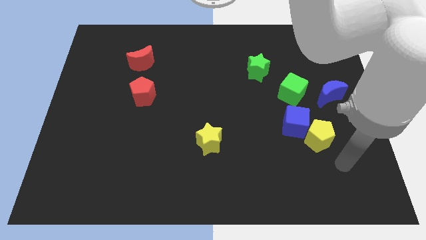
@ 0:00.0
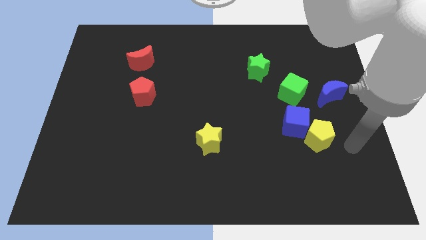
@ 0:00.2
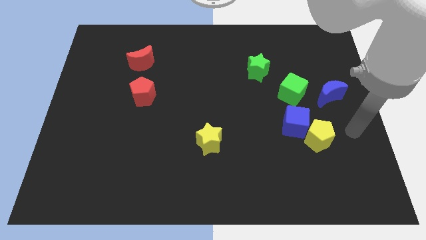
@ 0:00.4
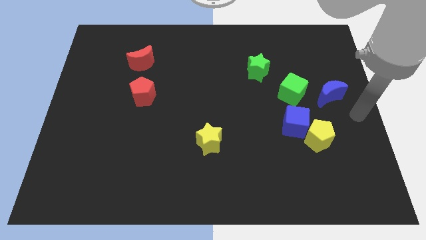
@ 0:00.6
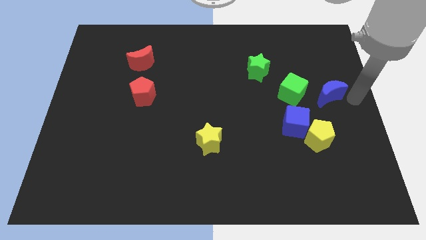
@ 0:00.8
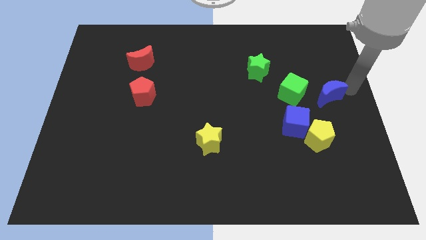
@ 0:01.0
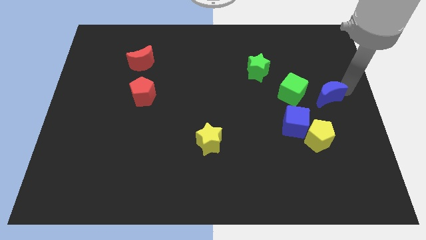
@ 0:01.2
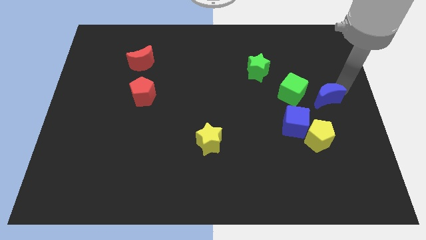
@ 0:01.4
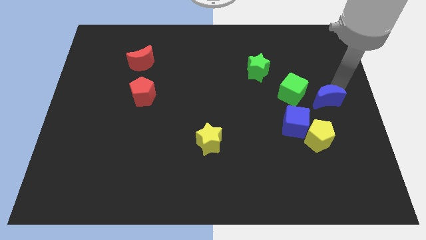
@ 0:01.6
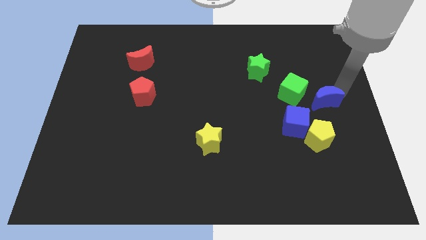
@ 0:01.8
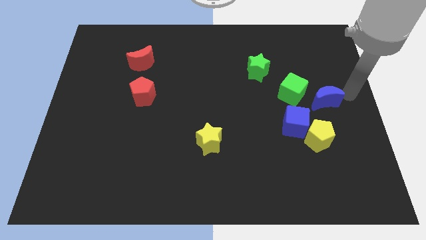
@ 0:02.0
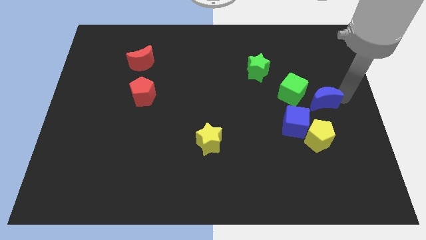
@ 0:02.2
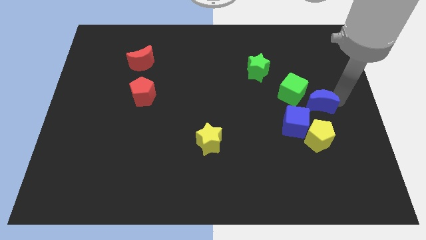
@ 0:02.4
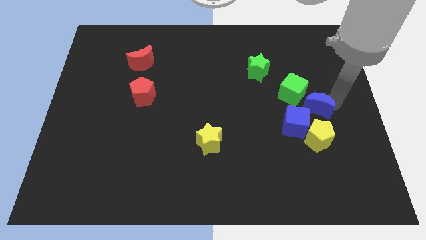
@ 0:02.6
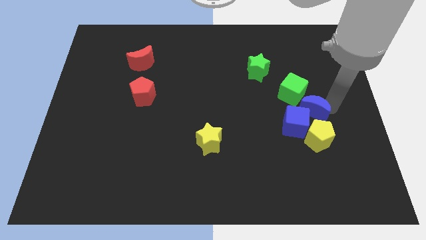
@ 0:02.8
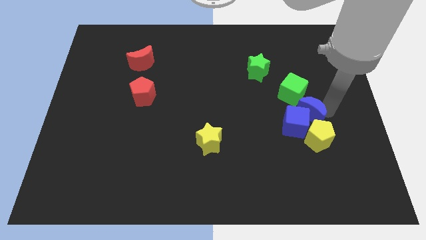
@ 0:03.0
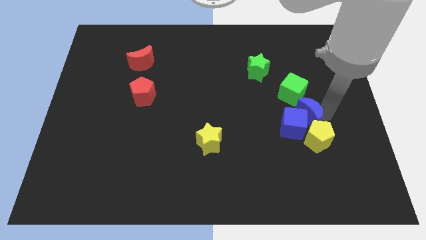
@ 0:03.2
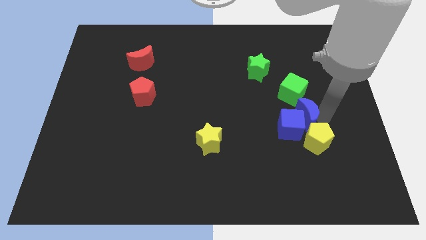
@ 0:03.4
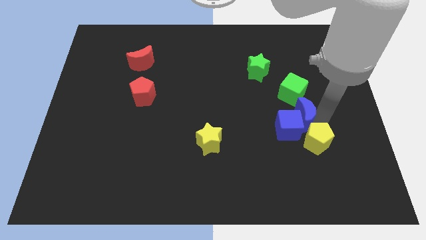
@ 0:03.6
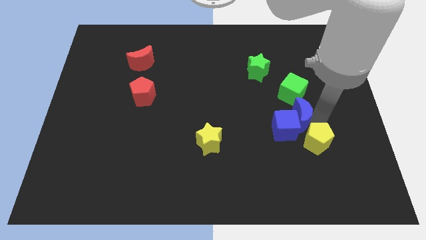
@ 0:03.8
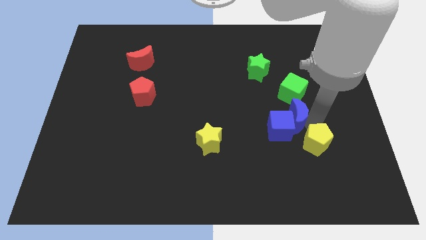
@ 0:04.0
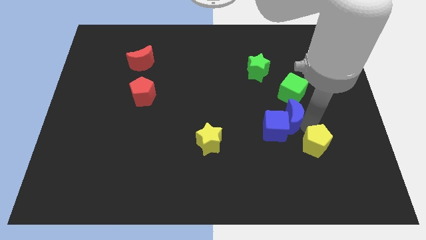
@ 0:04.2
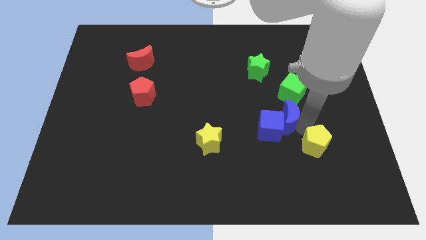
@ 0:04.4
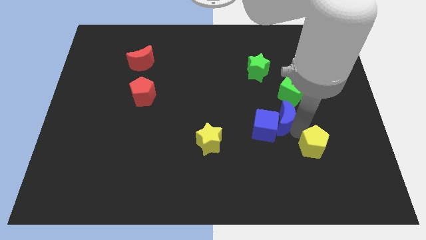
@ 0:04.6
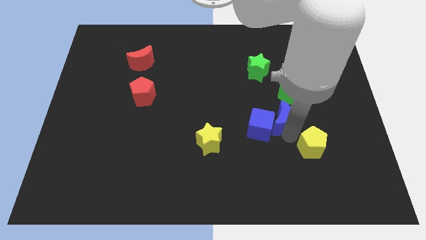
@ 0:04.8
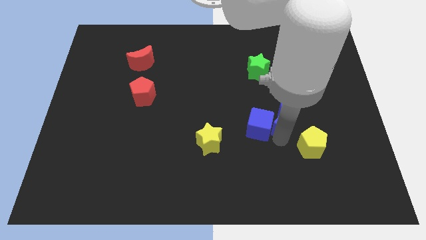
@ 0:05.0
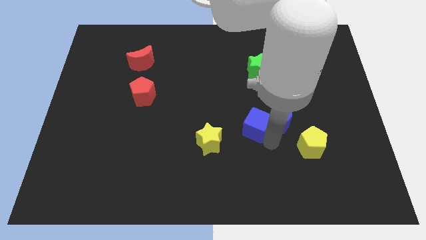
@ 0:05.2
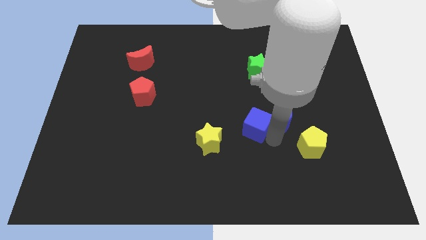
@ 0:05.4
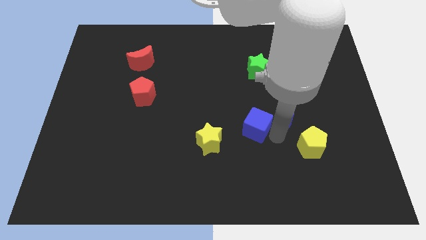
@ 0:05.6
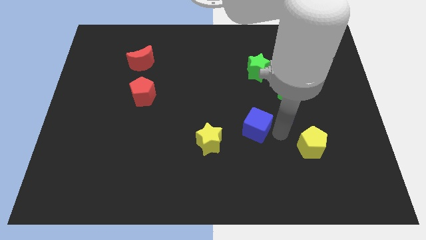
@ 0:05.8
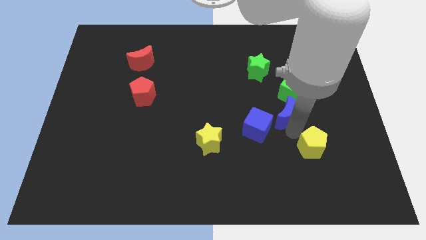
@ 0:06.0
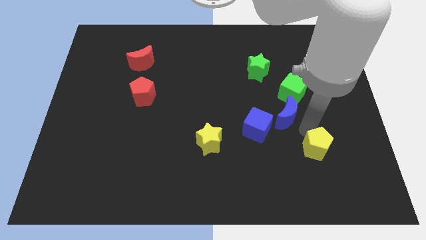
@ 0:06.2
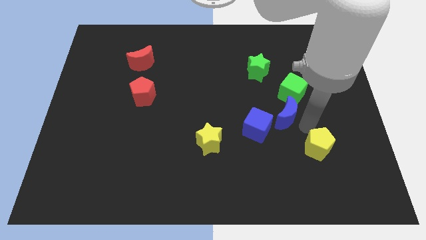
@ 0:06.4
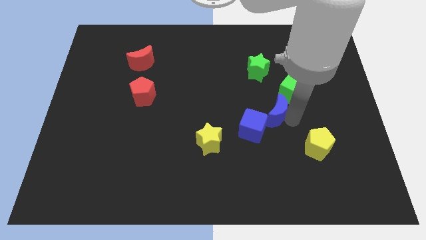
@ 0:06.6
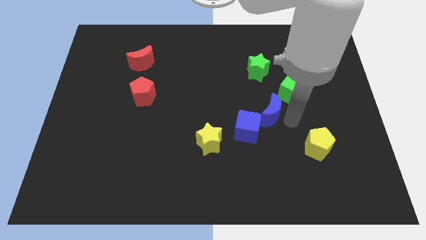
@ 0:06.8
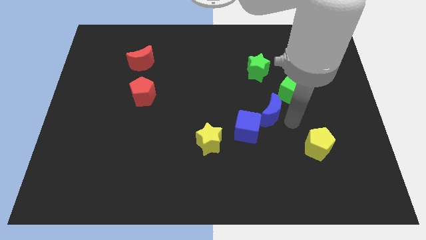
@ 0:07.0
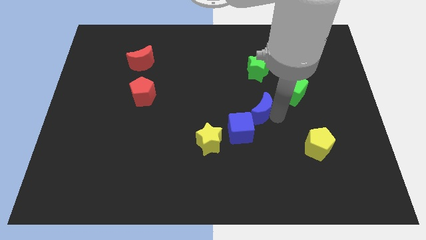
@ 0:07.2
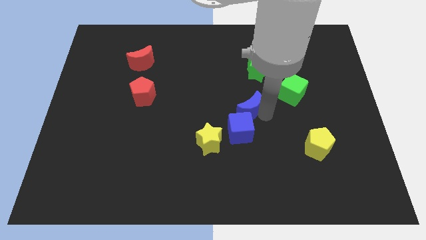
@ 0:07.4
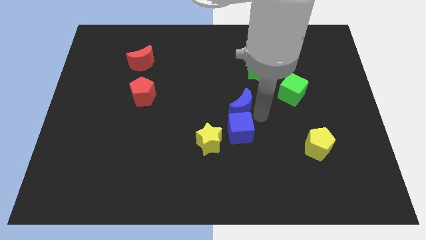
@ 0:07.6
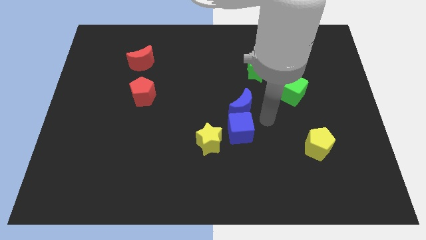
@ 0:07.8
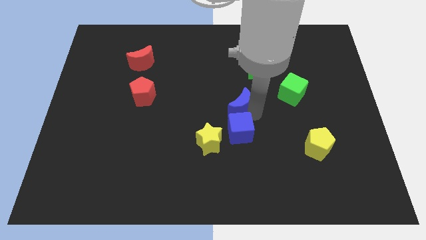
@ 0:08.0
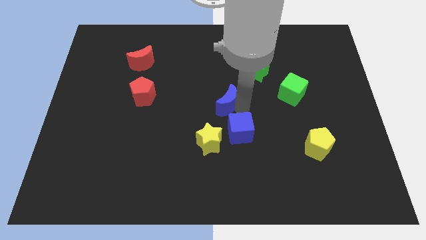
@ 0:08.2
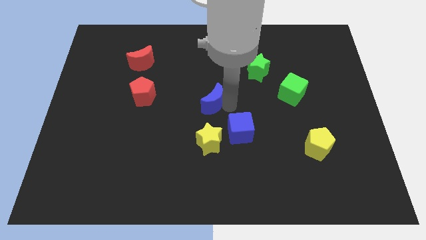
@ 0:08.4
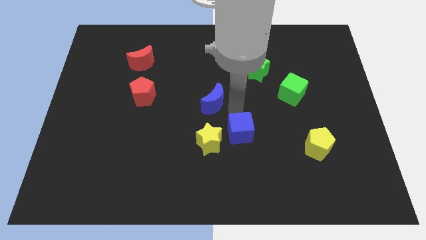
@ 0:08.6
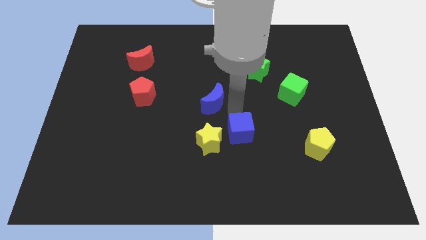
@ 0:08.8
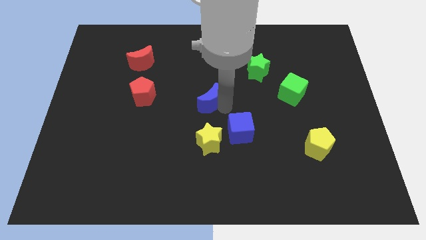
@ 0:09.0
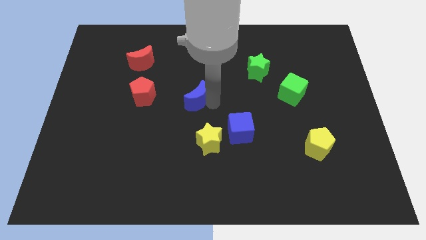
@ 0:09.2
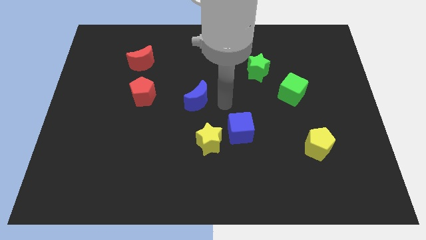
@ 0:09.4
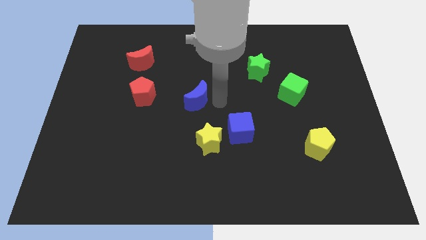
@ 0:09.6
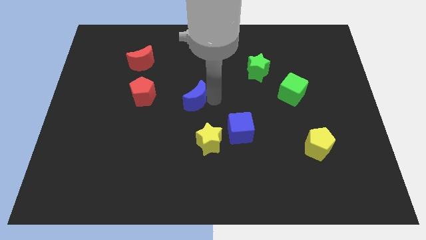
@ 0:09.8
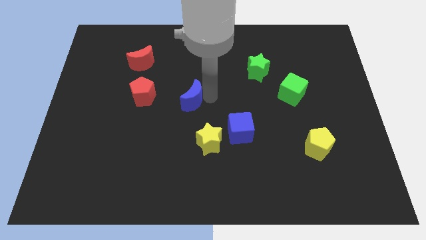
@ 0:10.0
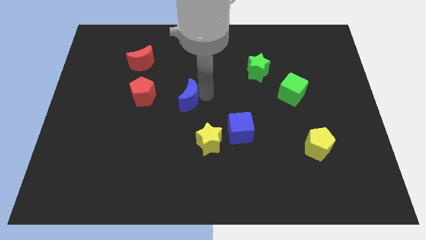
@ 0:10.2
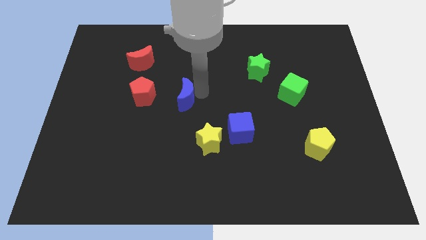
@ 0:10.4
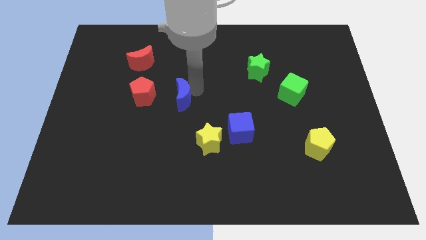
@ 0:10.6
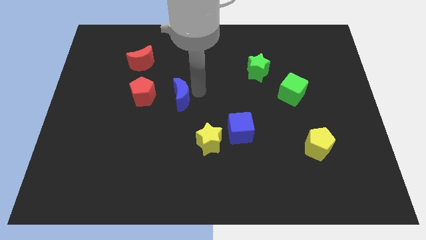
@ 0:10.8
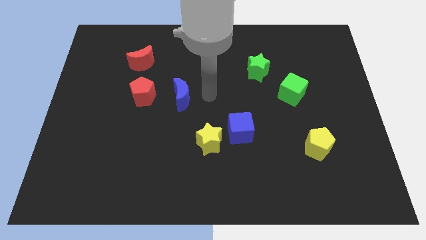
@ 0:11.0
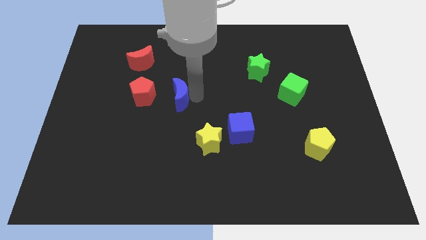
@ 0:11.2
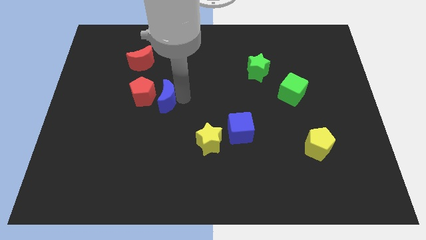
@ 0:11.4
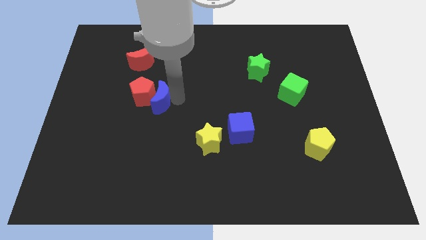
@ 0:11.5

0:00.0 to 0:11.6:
push the blue moon towards the red pentagon

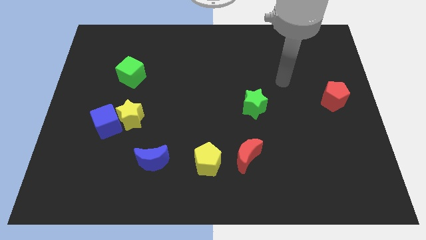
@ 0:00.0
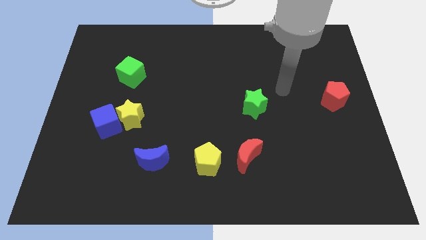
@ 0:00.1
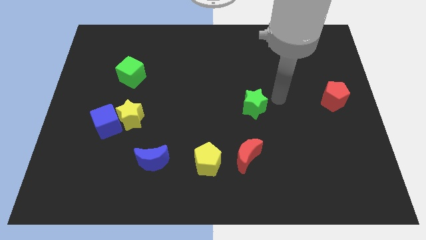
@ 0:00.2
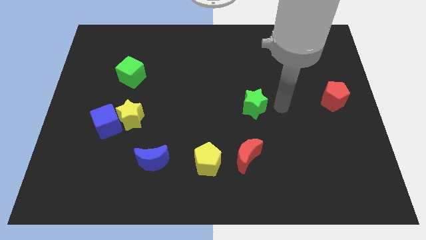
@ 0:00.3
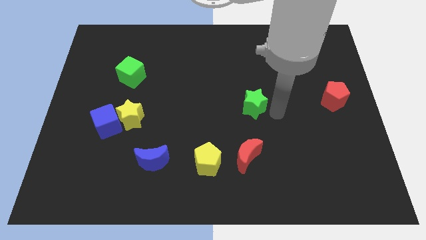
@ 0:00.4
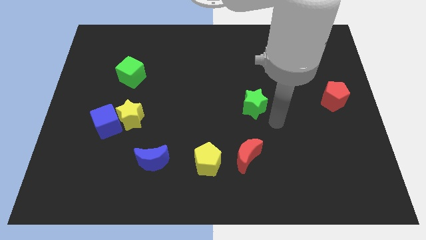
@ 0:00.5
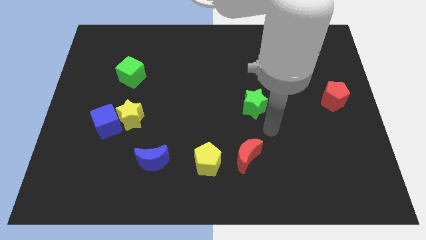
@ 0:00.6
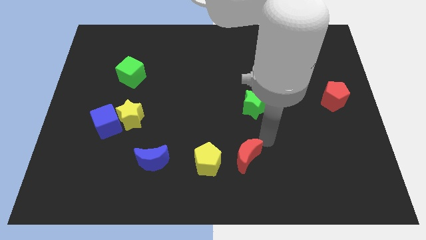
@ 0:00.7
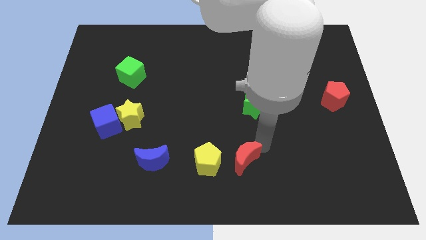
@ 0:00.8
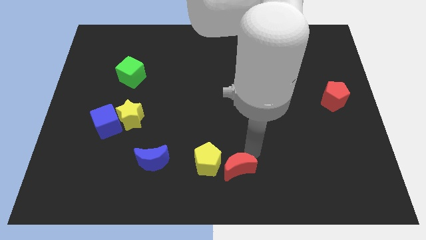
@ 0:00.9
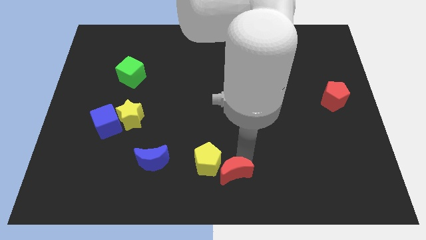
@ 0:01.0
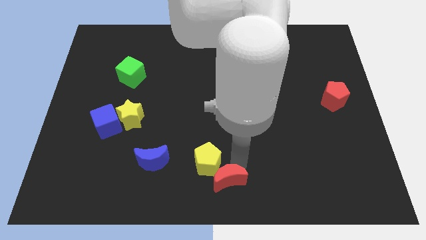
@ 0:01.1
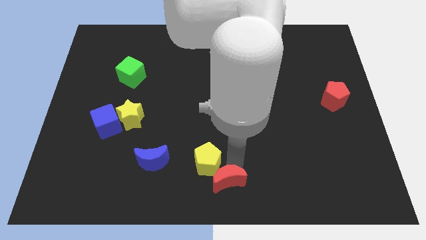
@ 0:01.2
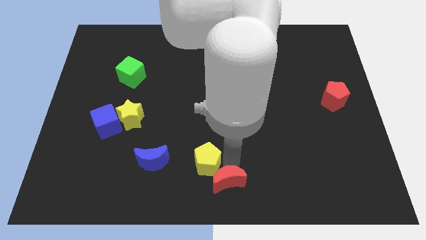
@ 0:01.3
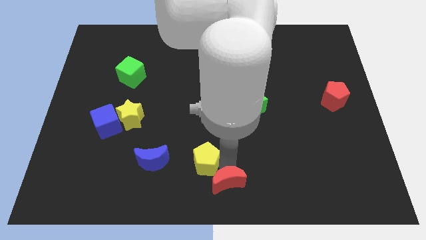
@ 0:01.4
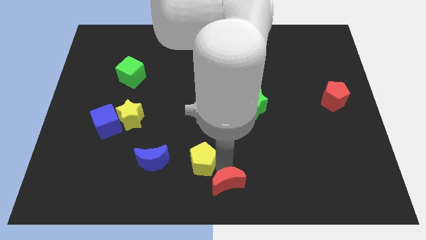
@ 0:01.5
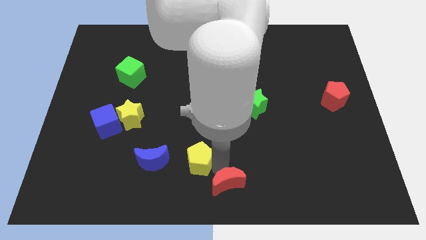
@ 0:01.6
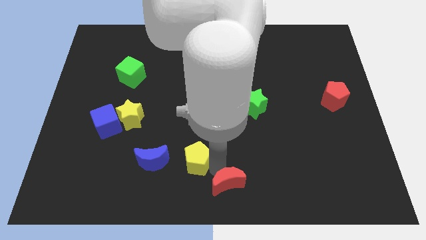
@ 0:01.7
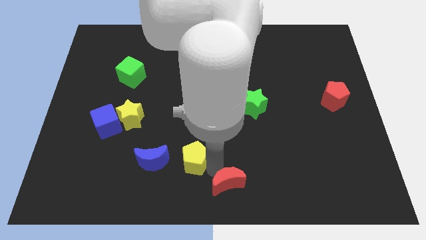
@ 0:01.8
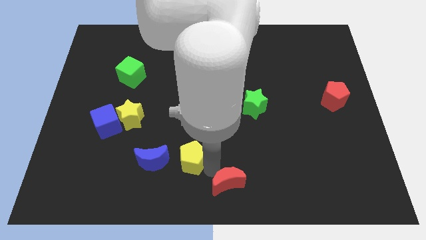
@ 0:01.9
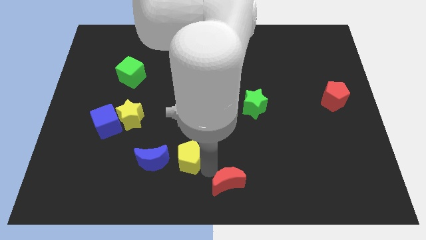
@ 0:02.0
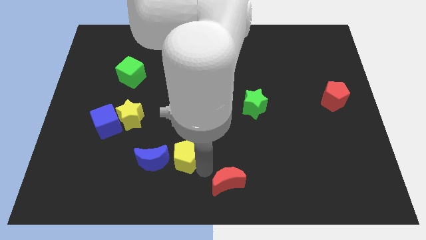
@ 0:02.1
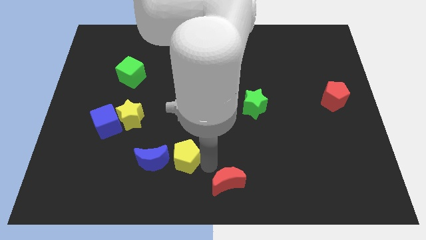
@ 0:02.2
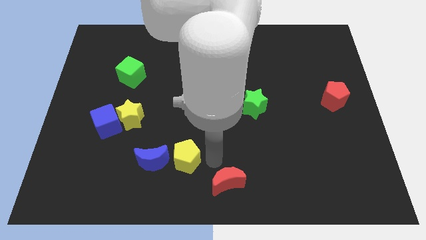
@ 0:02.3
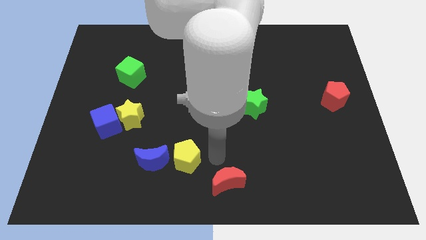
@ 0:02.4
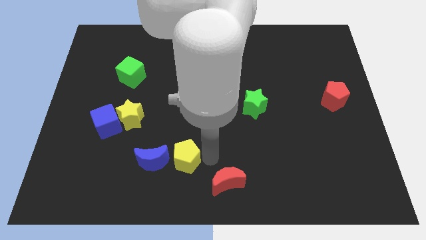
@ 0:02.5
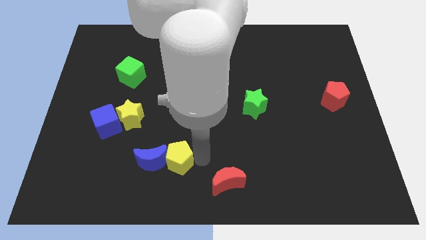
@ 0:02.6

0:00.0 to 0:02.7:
slide the yellow pentagon towards the blue moon
